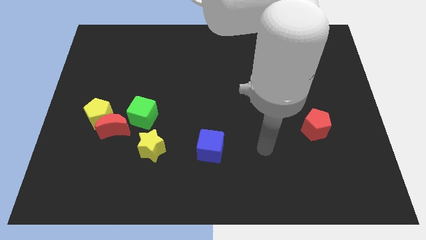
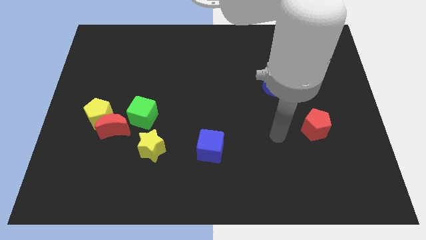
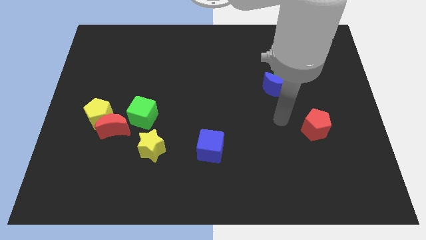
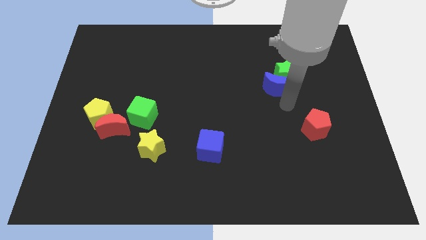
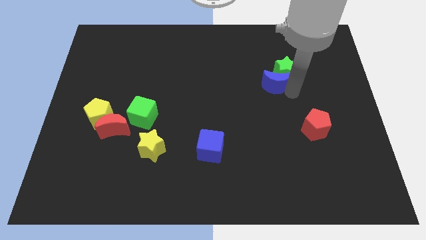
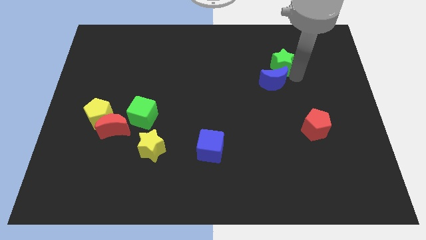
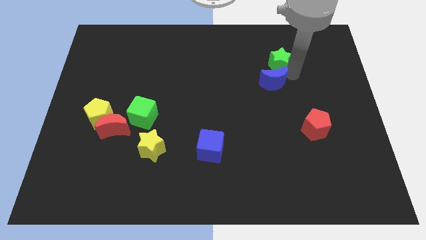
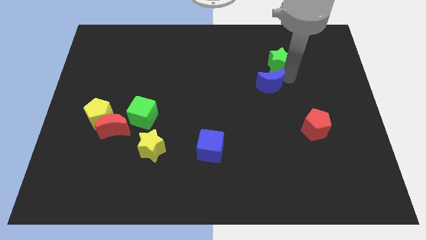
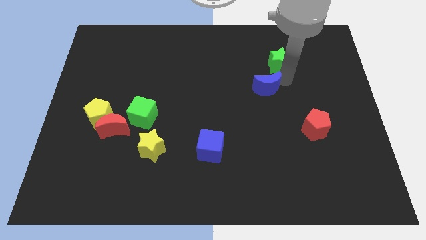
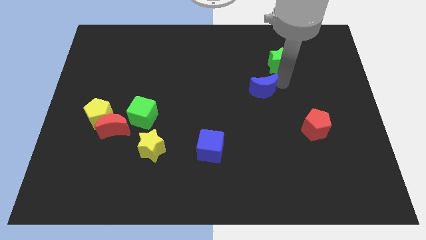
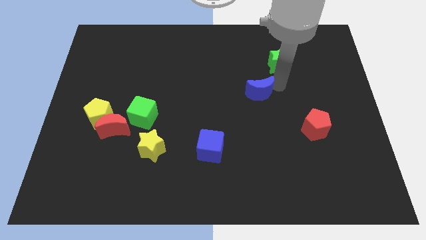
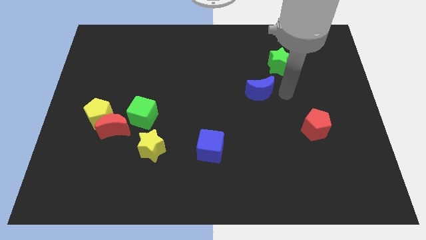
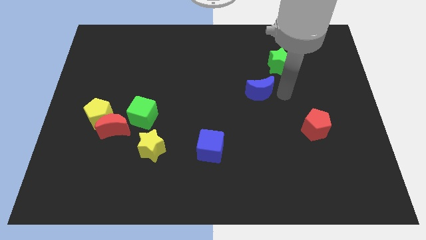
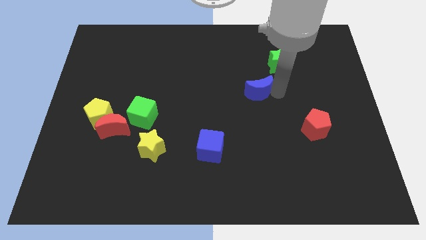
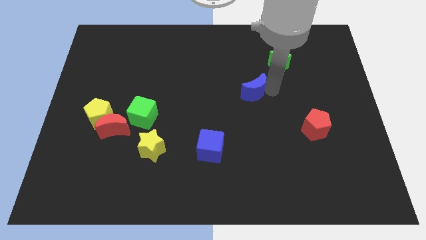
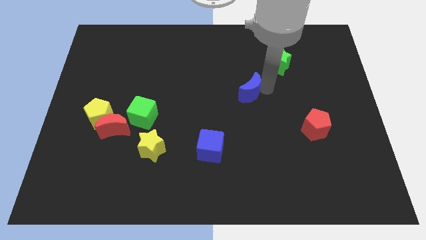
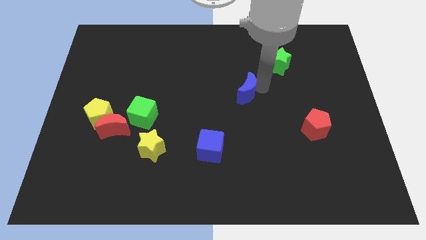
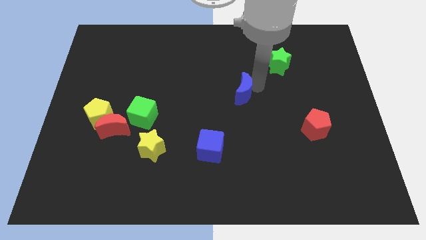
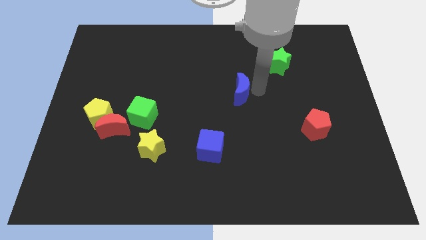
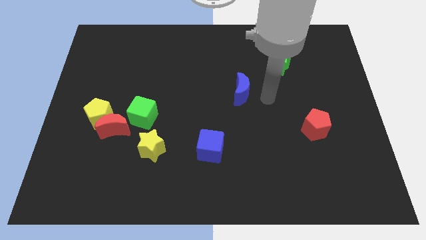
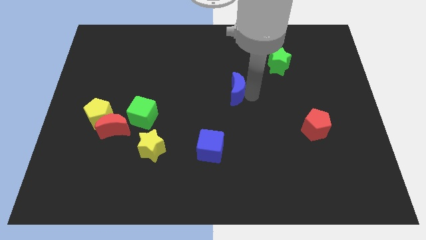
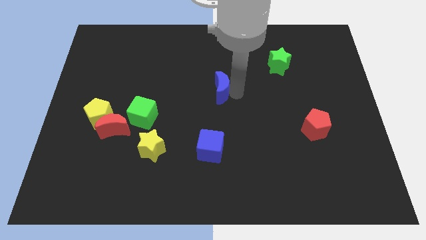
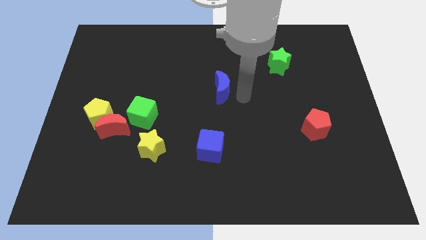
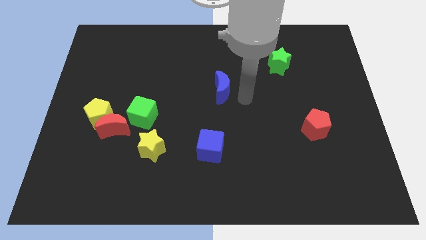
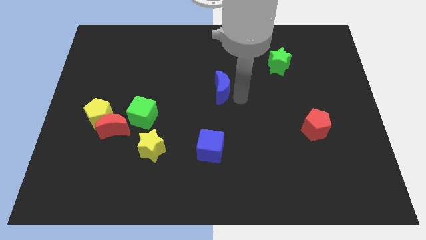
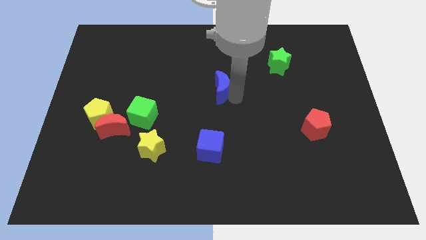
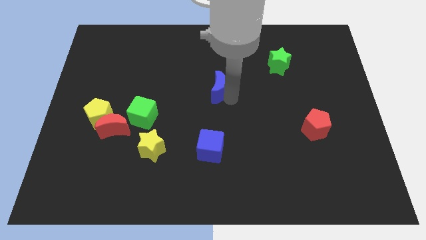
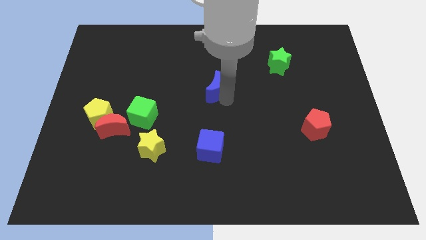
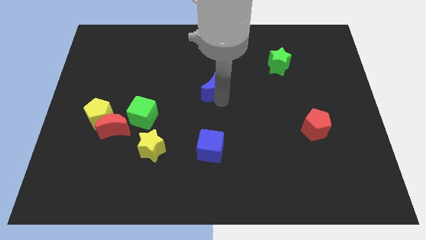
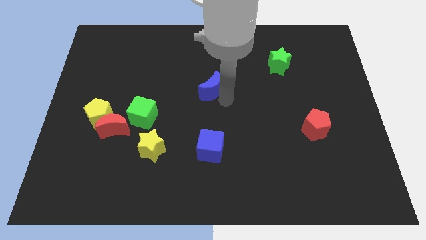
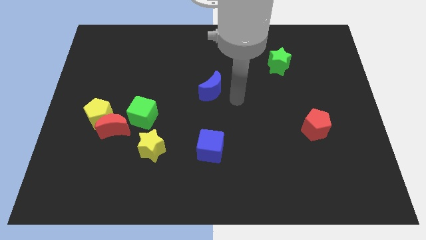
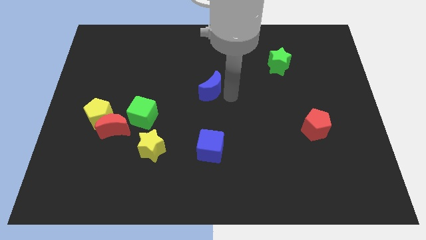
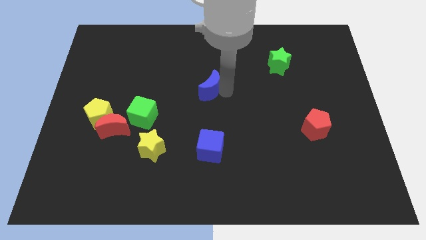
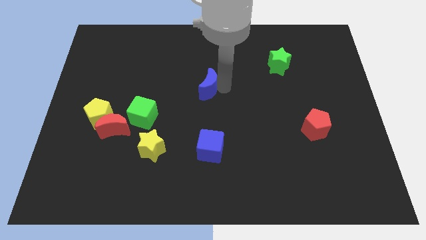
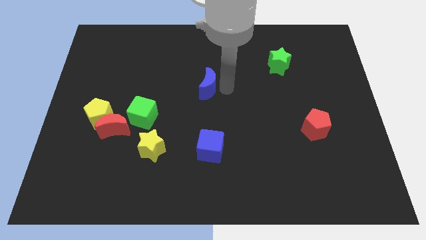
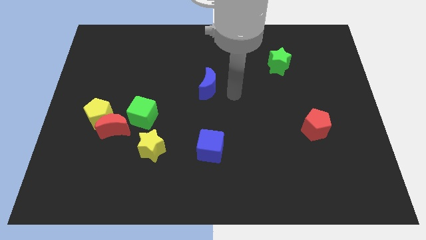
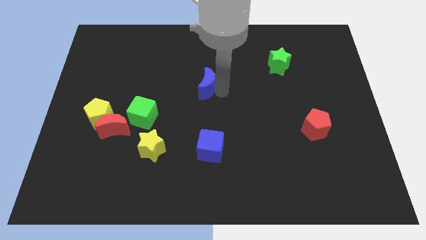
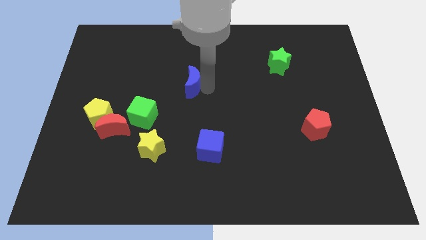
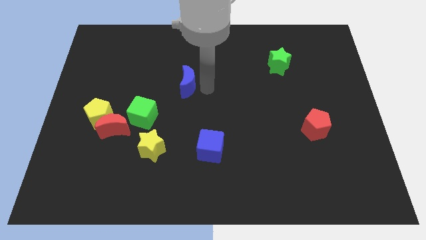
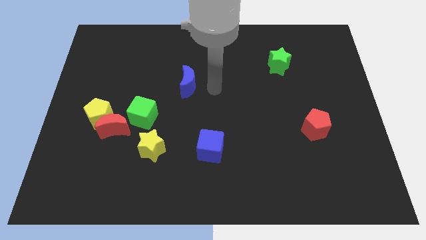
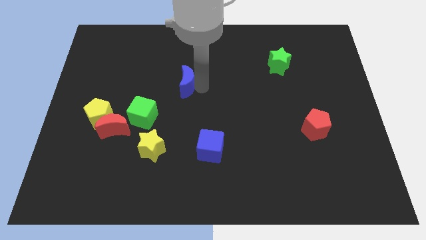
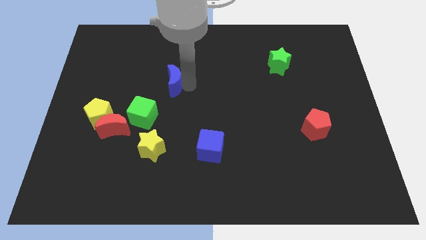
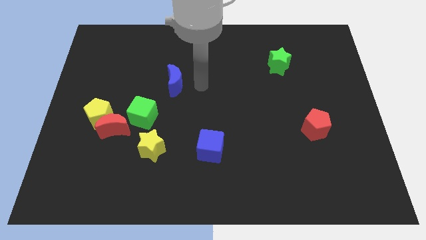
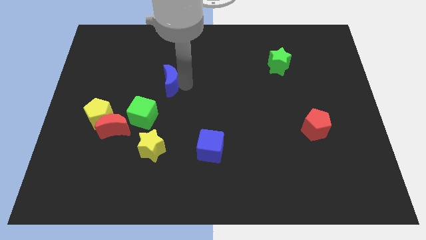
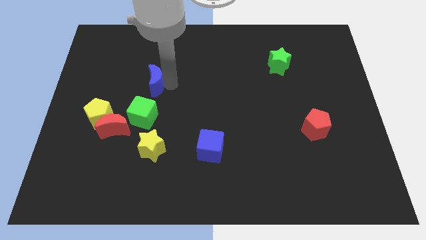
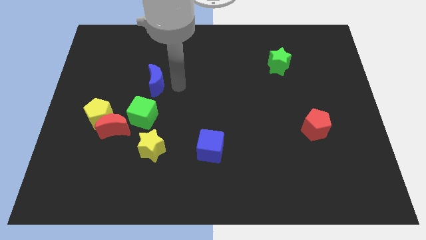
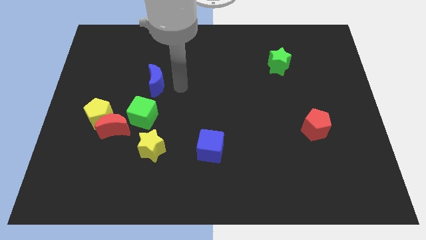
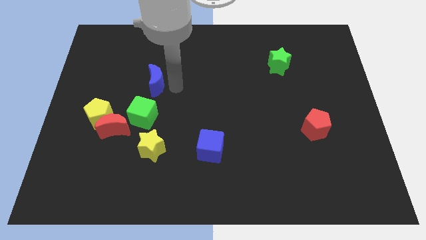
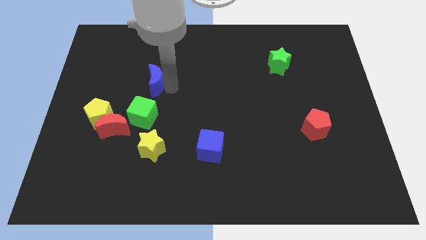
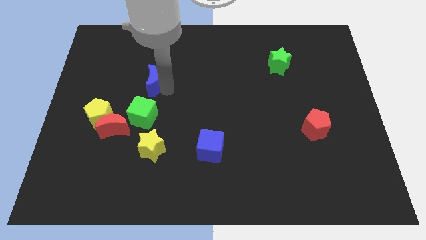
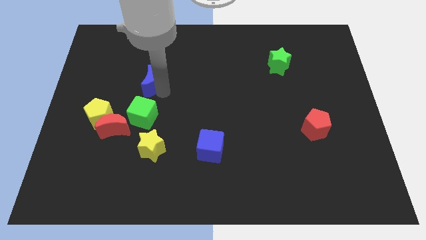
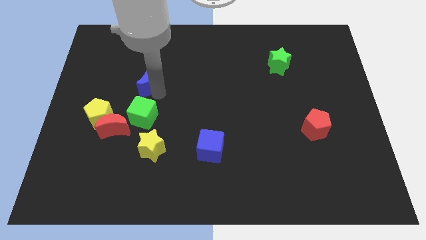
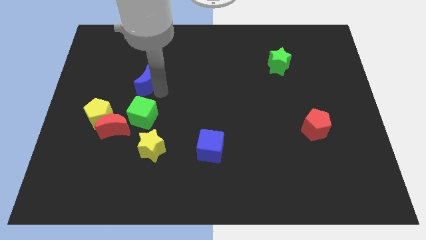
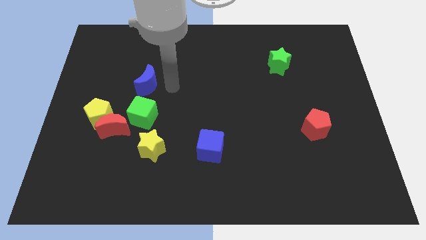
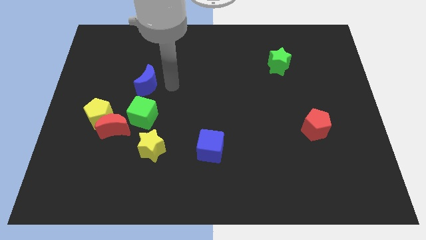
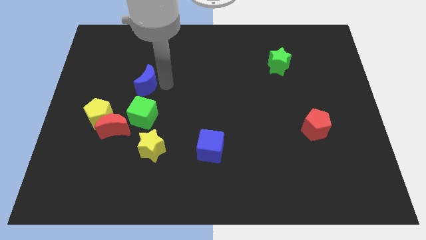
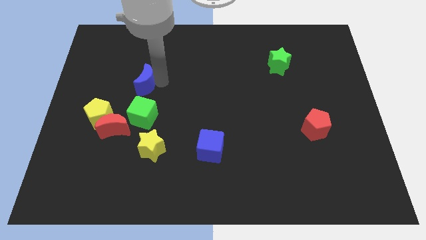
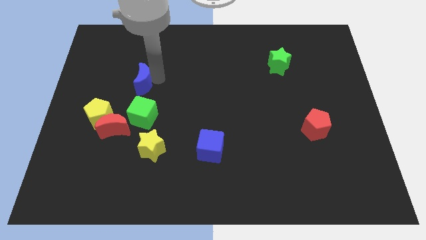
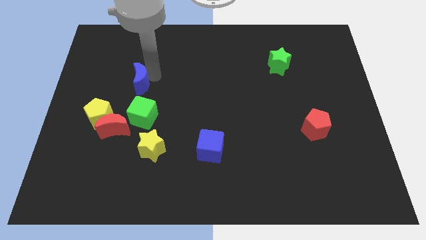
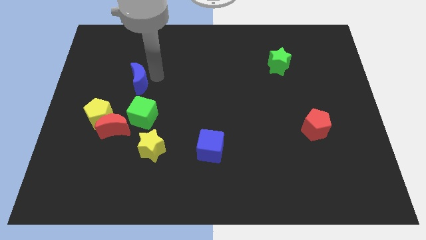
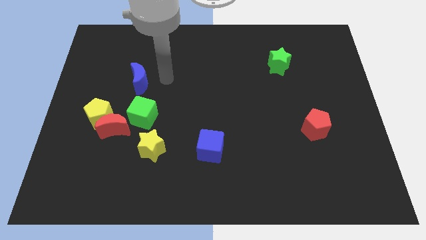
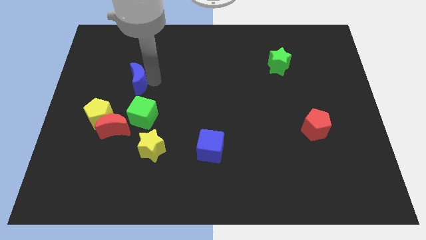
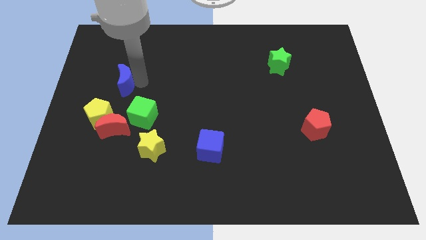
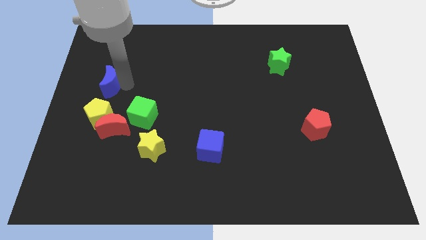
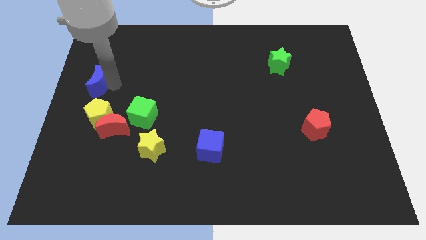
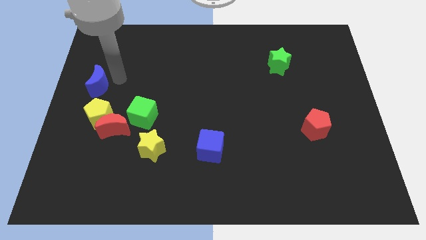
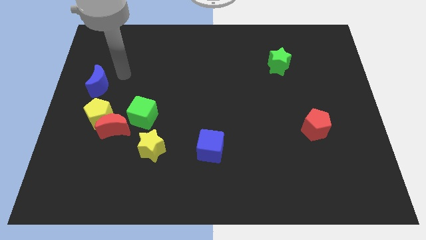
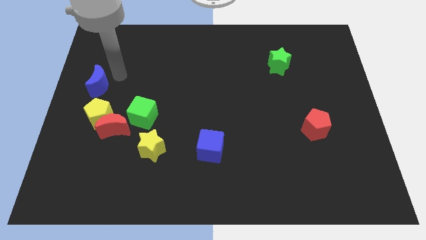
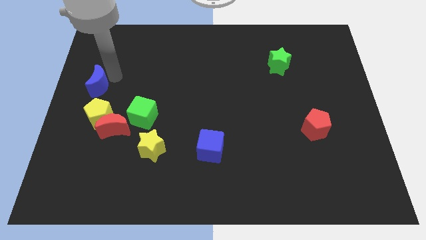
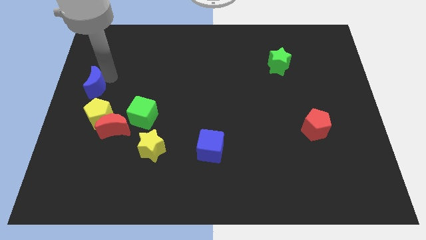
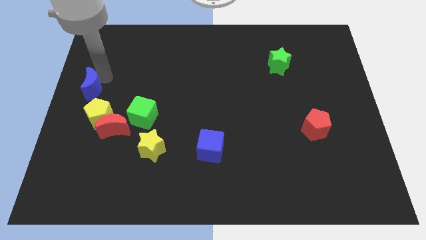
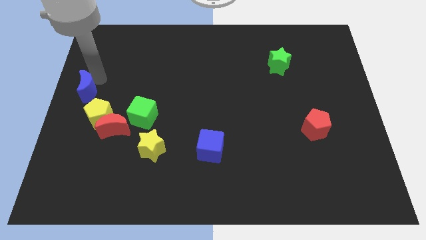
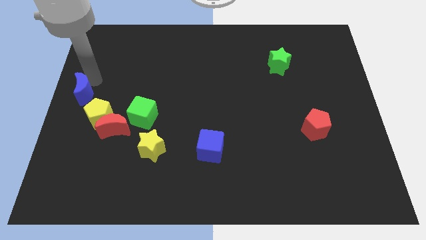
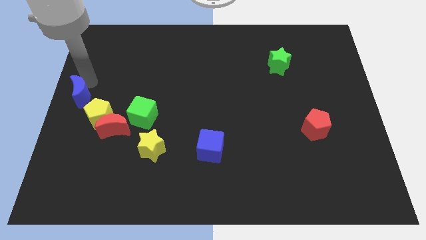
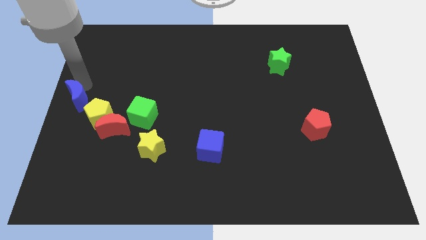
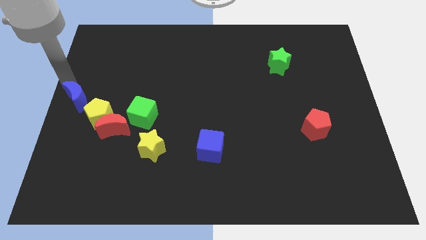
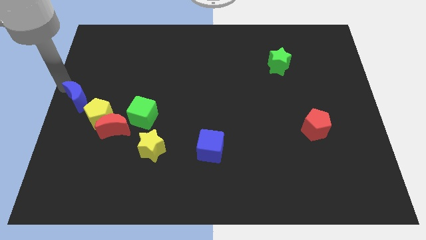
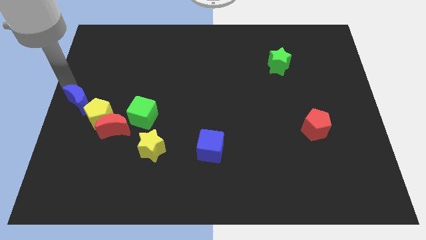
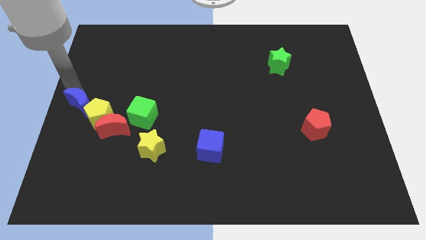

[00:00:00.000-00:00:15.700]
push the blue moon to the left of the green cube
